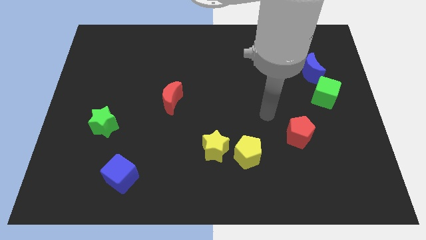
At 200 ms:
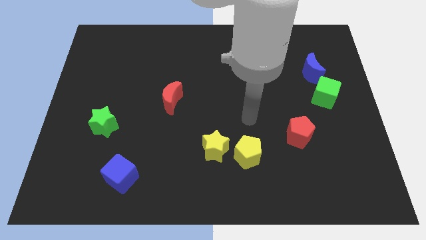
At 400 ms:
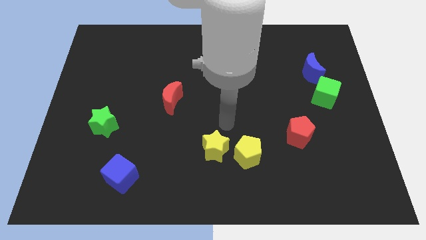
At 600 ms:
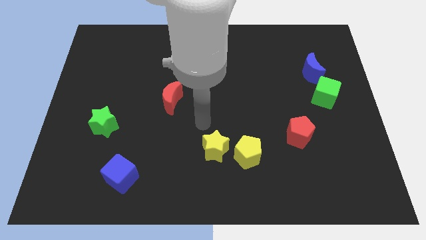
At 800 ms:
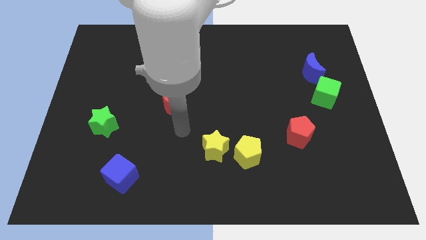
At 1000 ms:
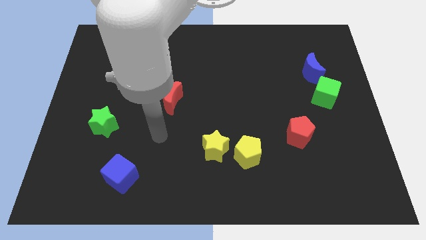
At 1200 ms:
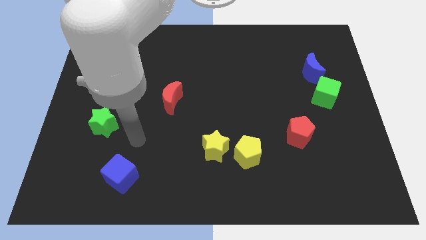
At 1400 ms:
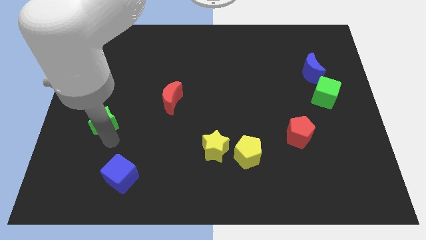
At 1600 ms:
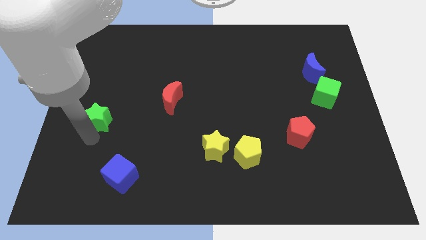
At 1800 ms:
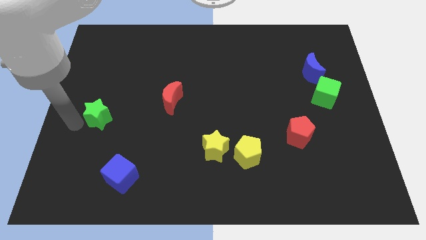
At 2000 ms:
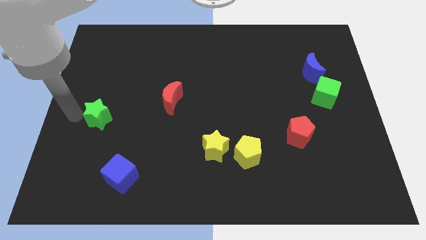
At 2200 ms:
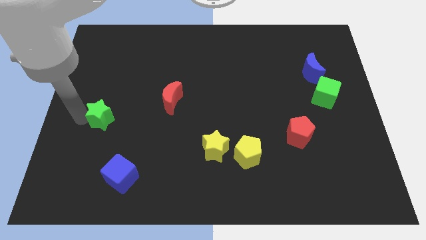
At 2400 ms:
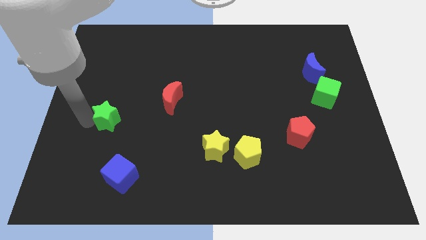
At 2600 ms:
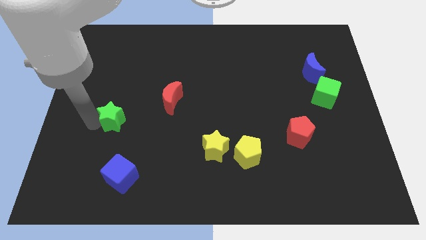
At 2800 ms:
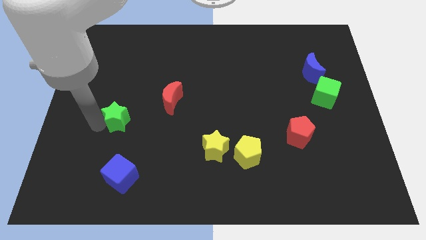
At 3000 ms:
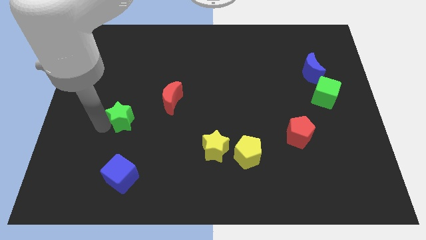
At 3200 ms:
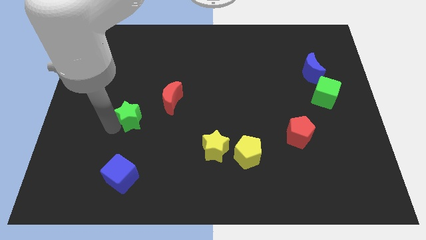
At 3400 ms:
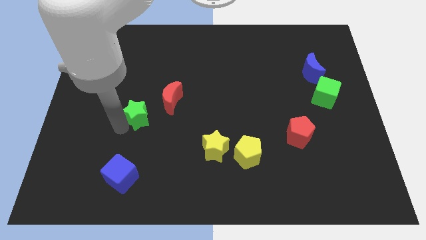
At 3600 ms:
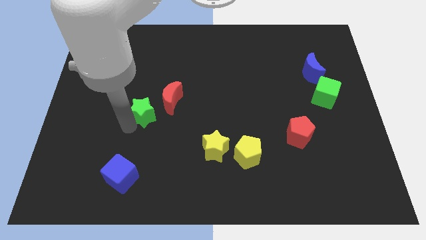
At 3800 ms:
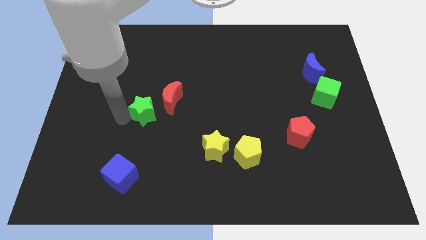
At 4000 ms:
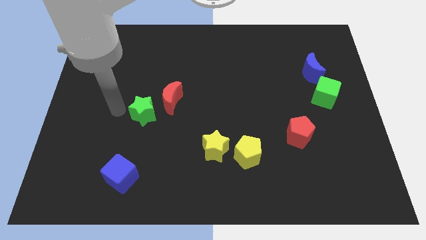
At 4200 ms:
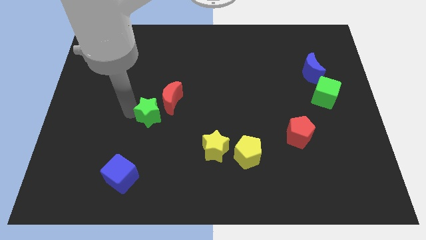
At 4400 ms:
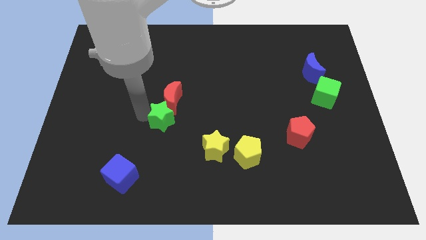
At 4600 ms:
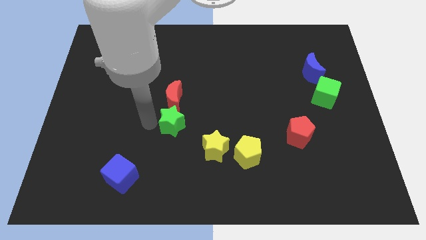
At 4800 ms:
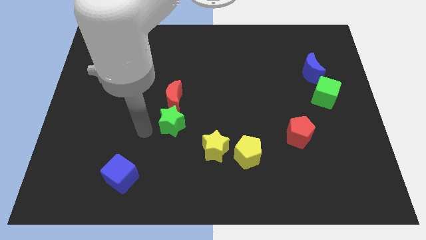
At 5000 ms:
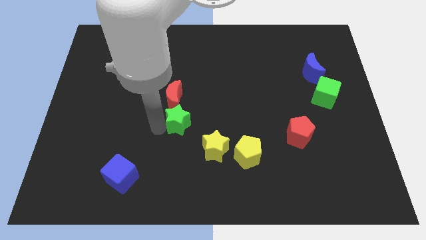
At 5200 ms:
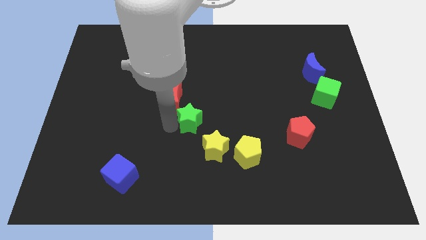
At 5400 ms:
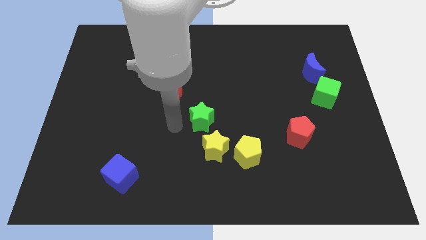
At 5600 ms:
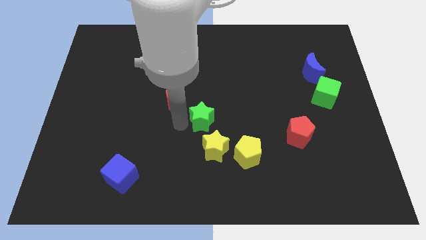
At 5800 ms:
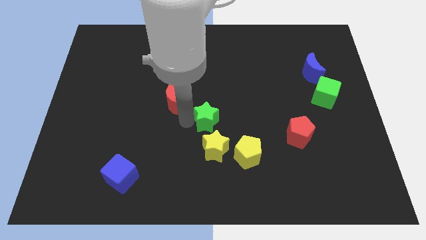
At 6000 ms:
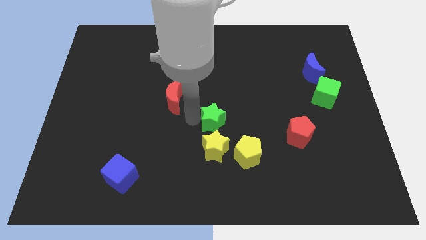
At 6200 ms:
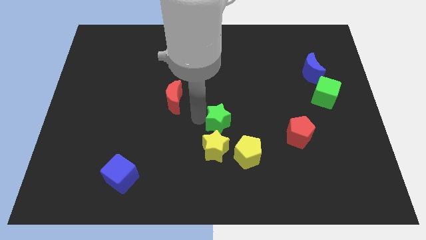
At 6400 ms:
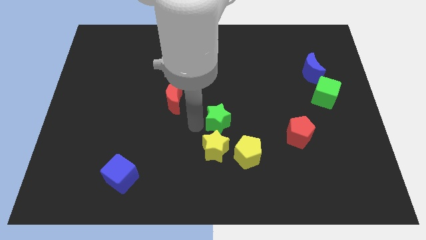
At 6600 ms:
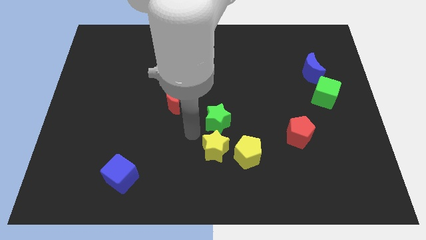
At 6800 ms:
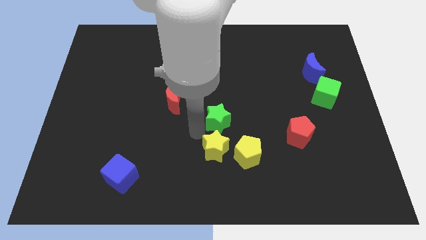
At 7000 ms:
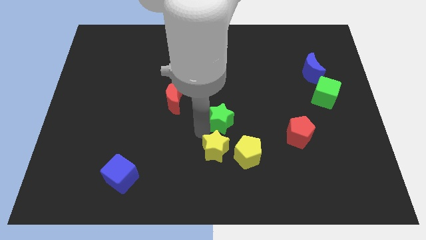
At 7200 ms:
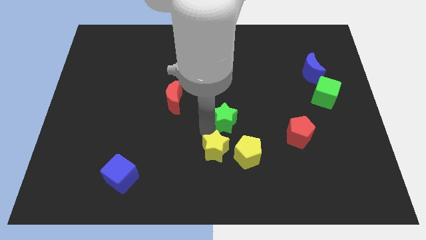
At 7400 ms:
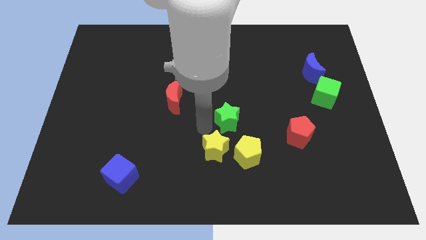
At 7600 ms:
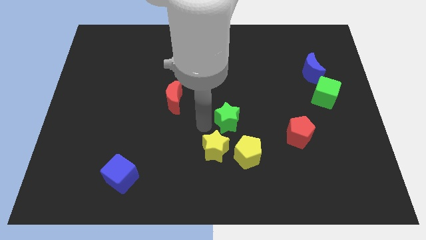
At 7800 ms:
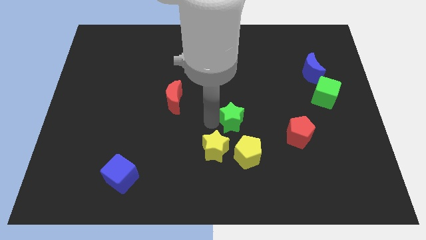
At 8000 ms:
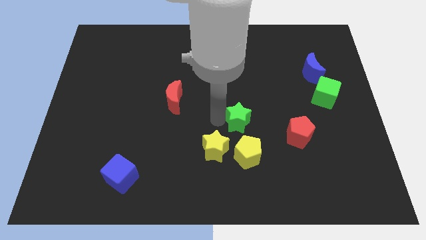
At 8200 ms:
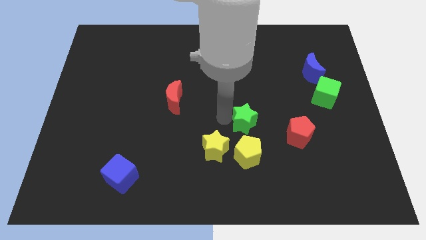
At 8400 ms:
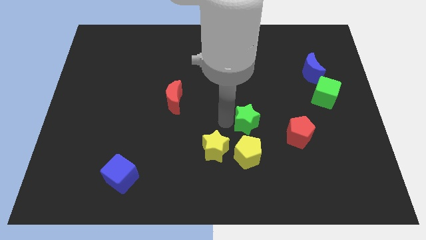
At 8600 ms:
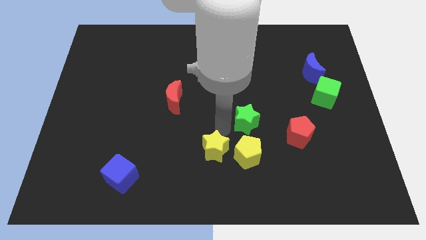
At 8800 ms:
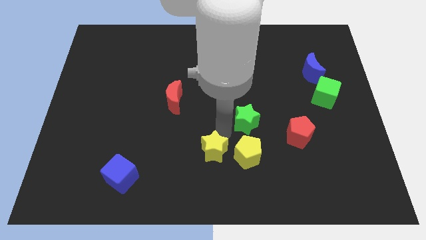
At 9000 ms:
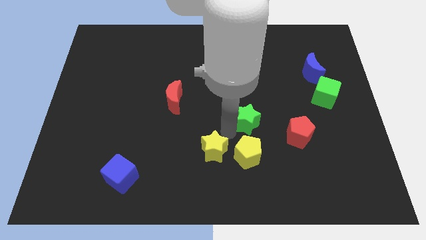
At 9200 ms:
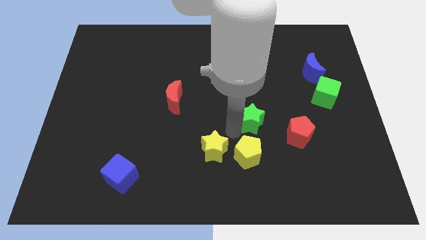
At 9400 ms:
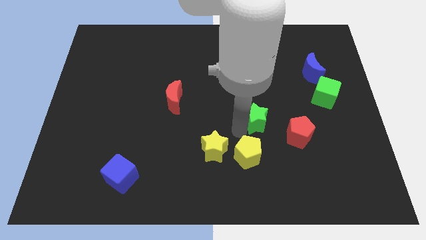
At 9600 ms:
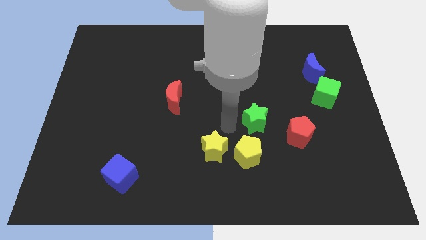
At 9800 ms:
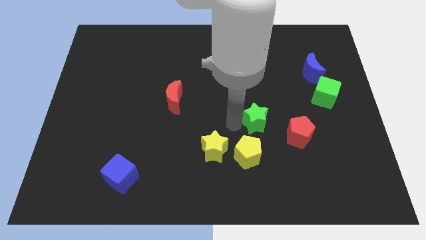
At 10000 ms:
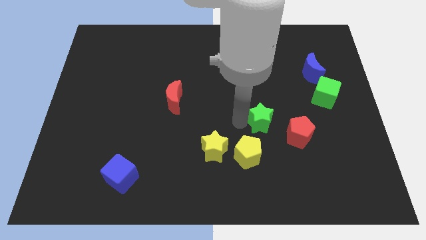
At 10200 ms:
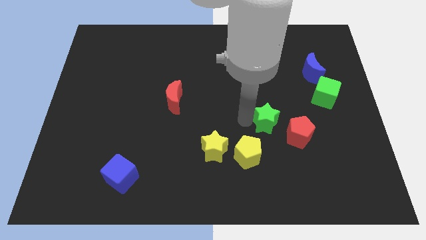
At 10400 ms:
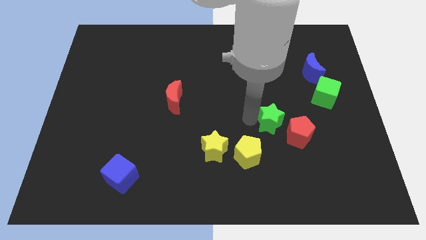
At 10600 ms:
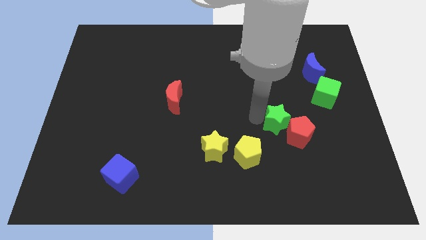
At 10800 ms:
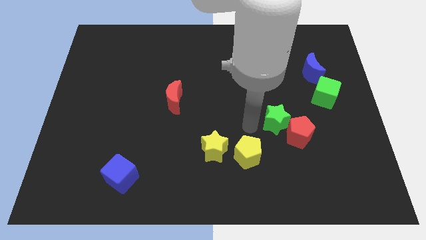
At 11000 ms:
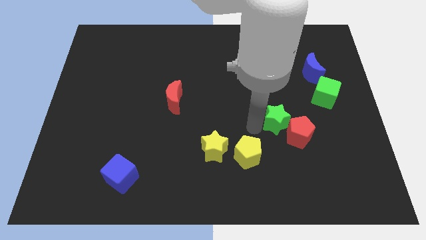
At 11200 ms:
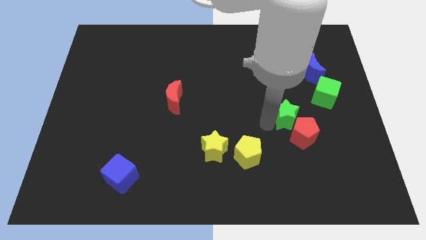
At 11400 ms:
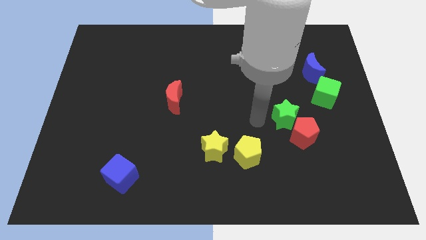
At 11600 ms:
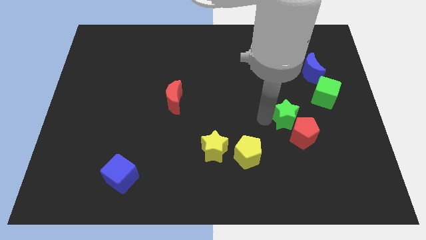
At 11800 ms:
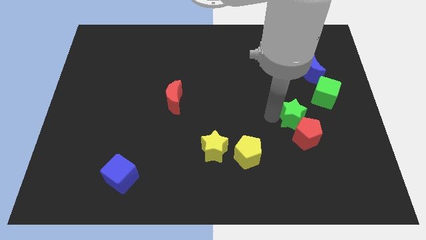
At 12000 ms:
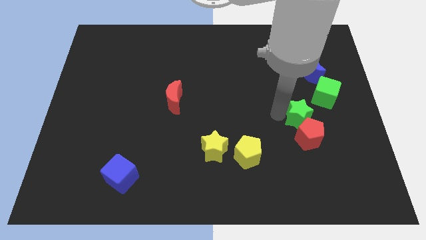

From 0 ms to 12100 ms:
push the green star to the top right of the red pentagon

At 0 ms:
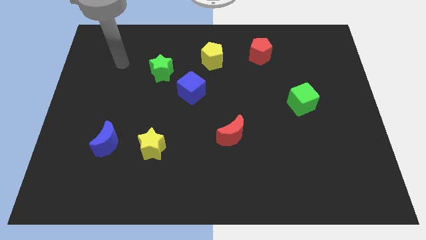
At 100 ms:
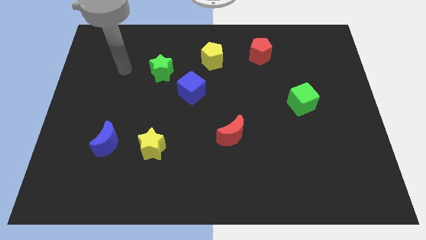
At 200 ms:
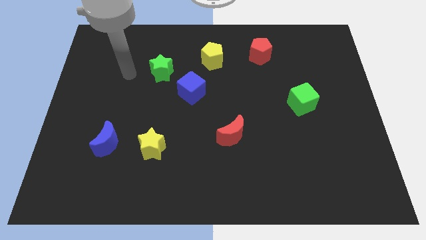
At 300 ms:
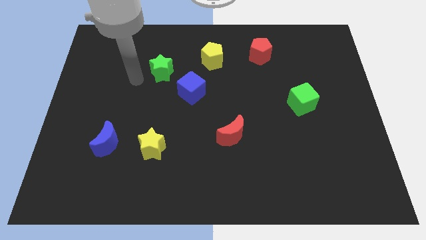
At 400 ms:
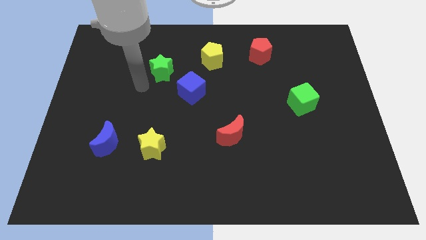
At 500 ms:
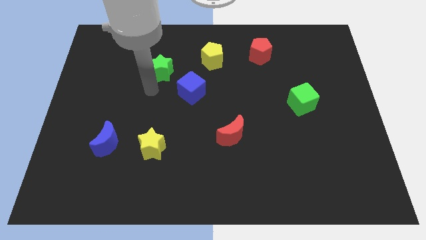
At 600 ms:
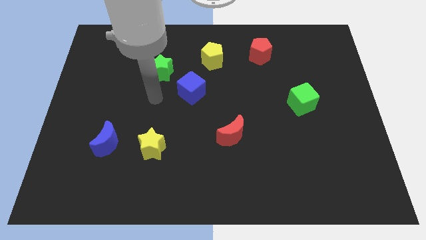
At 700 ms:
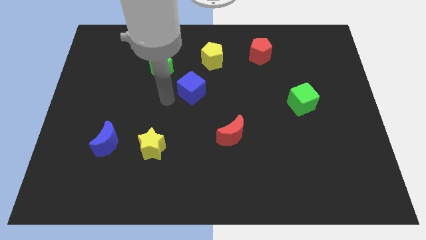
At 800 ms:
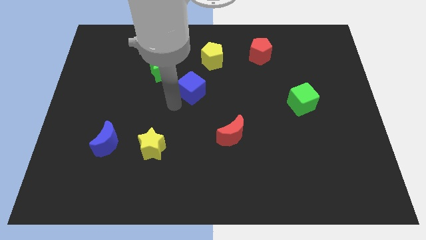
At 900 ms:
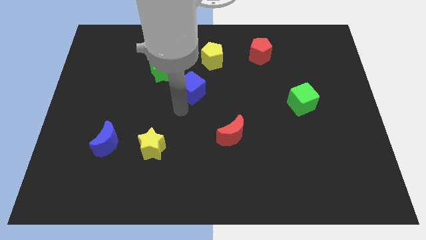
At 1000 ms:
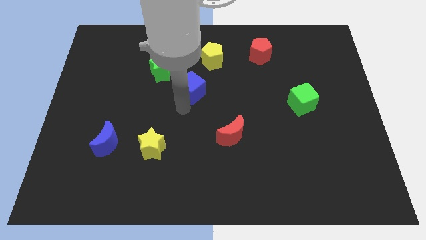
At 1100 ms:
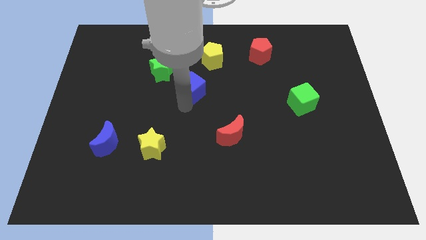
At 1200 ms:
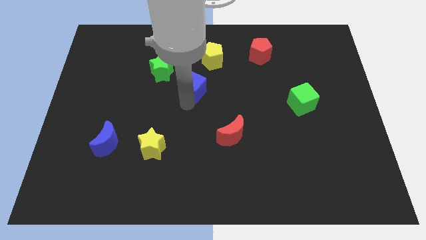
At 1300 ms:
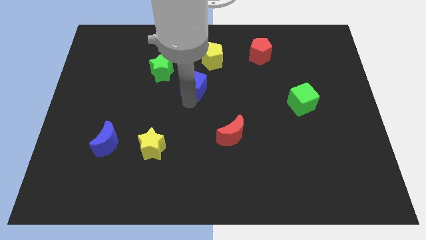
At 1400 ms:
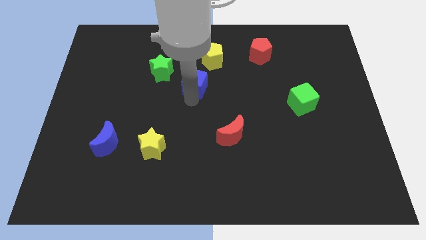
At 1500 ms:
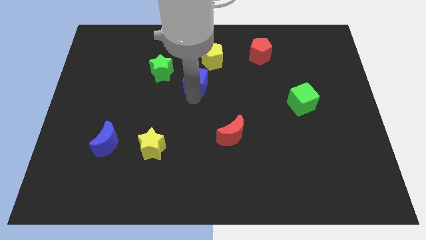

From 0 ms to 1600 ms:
slide the blue cube to the right of the green star
